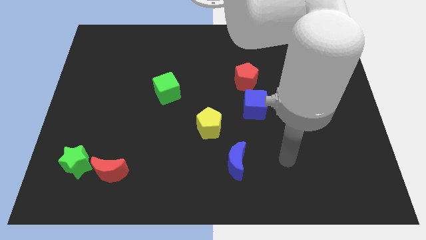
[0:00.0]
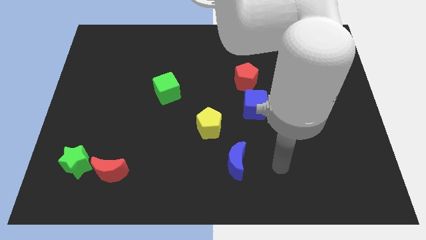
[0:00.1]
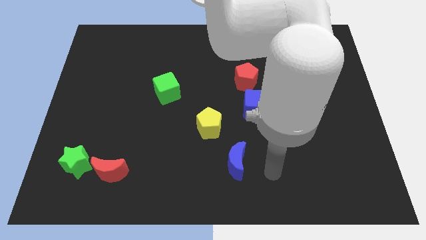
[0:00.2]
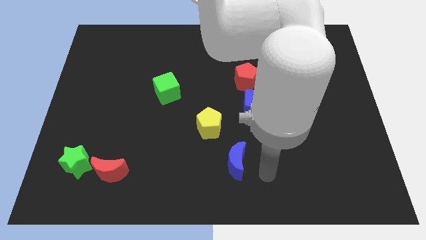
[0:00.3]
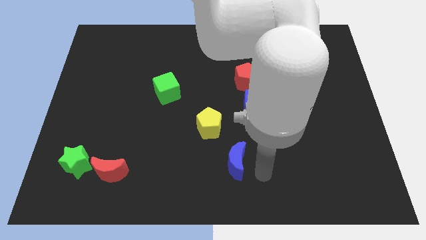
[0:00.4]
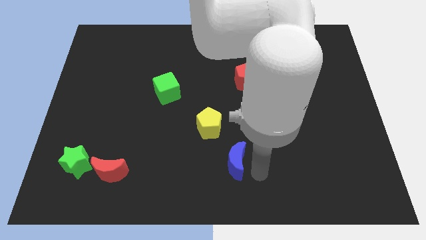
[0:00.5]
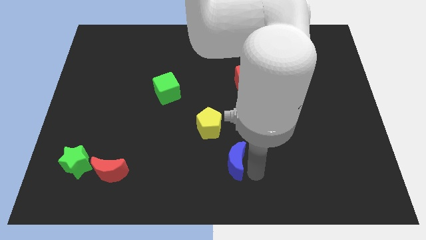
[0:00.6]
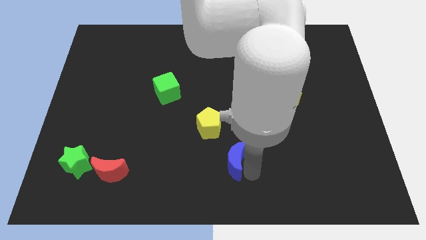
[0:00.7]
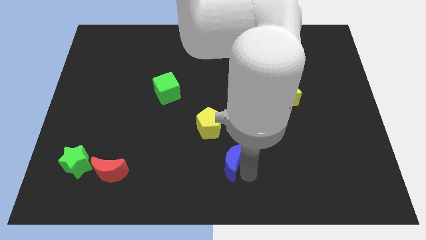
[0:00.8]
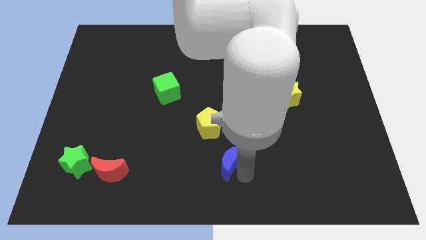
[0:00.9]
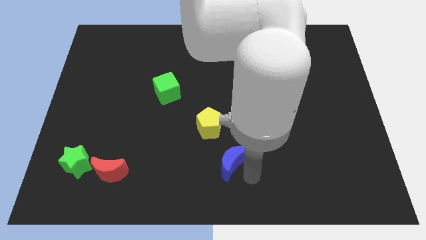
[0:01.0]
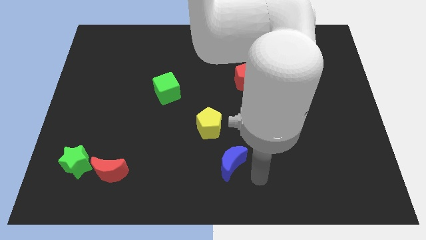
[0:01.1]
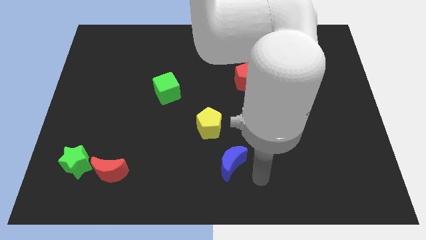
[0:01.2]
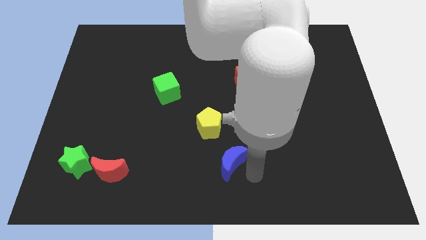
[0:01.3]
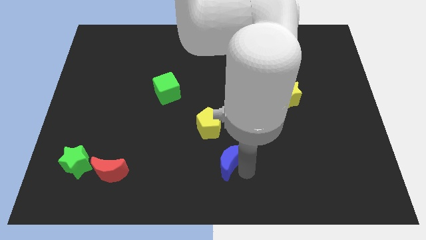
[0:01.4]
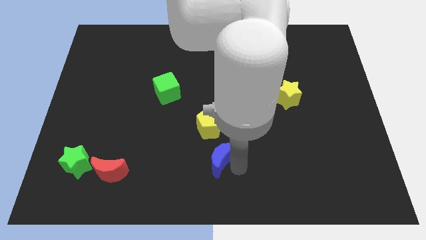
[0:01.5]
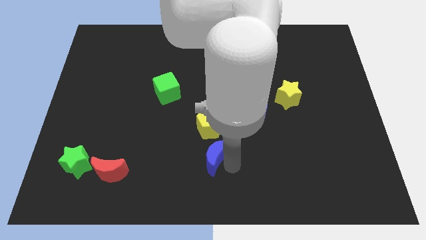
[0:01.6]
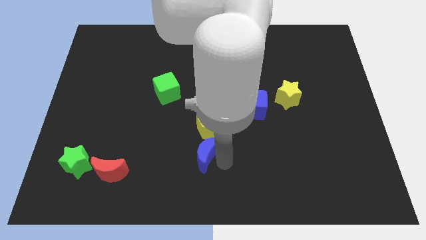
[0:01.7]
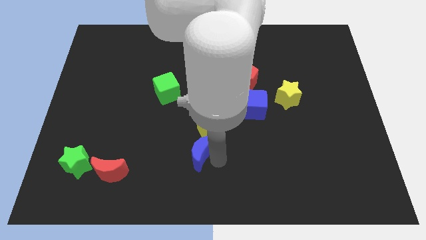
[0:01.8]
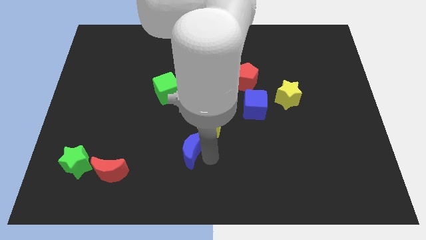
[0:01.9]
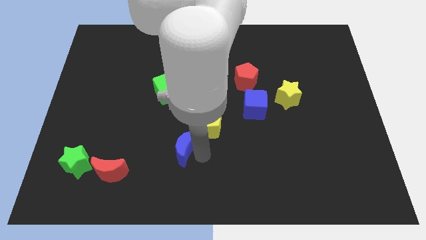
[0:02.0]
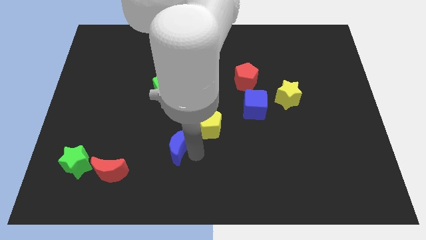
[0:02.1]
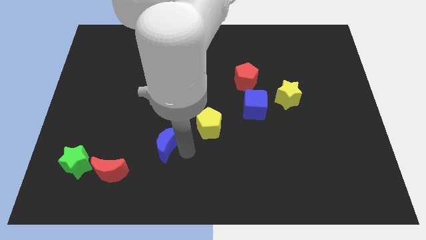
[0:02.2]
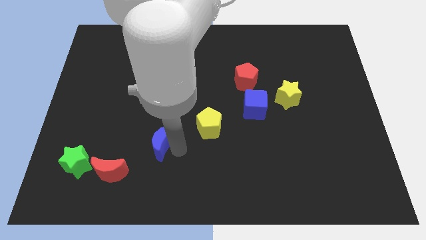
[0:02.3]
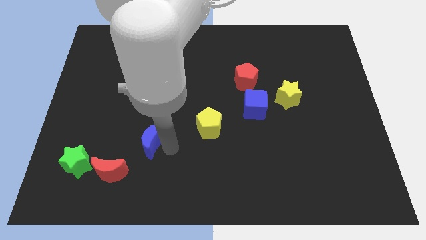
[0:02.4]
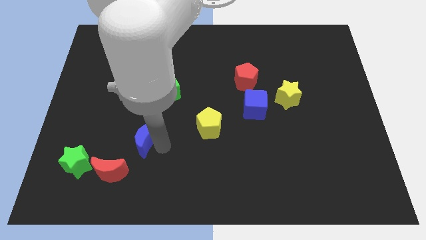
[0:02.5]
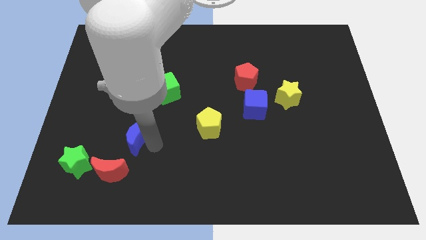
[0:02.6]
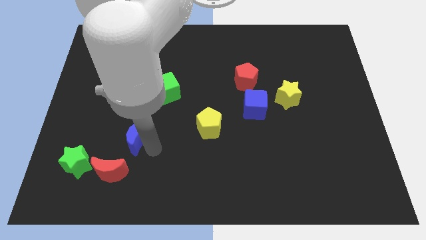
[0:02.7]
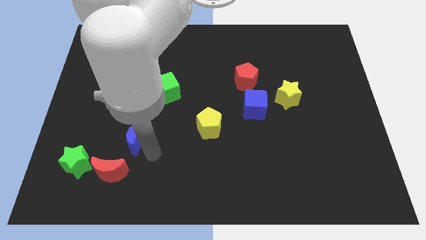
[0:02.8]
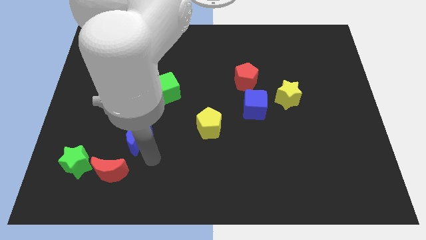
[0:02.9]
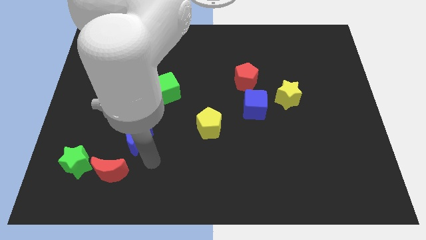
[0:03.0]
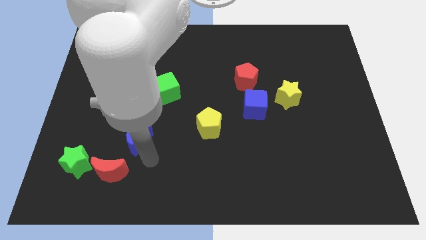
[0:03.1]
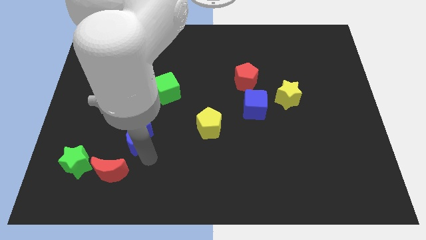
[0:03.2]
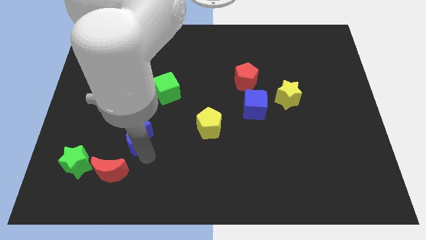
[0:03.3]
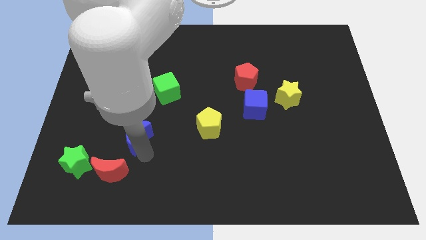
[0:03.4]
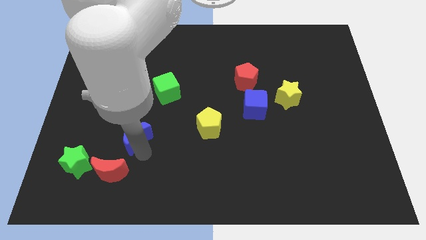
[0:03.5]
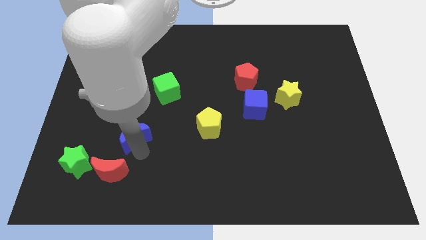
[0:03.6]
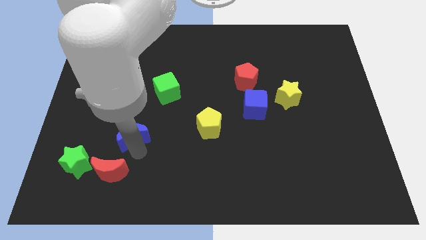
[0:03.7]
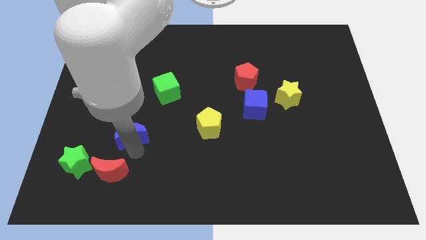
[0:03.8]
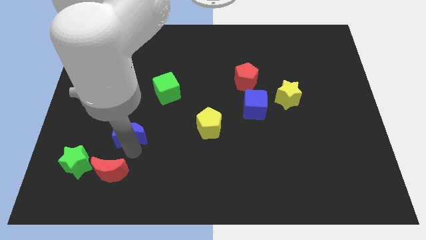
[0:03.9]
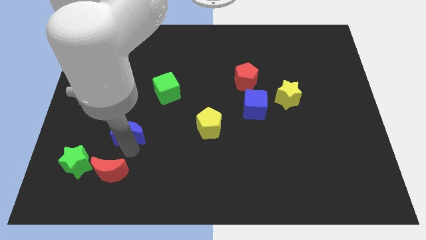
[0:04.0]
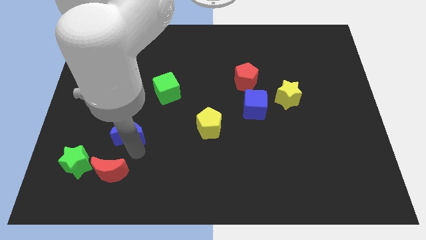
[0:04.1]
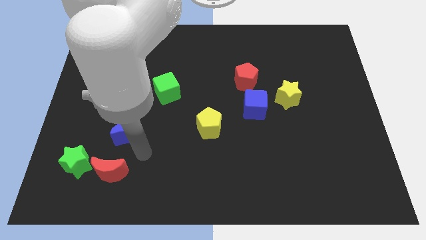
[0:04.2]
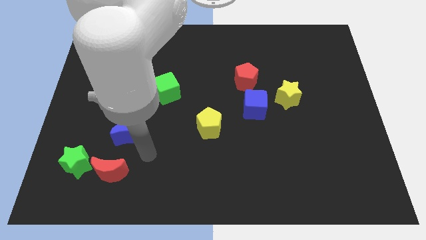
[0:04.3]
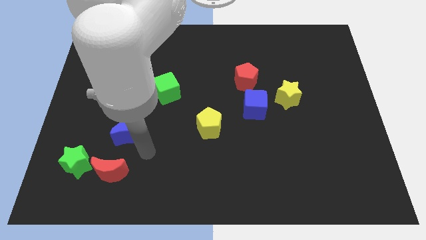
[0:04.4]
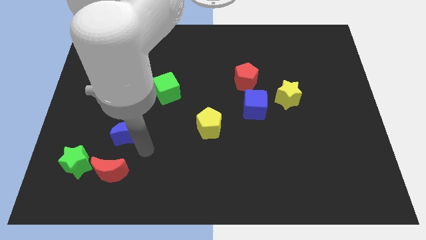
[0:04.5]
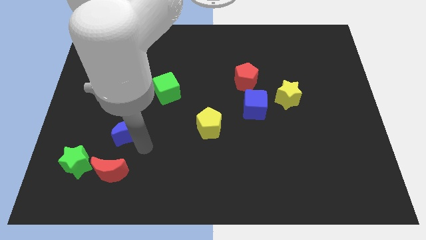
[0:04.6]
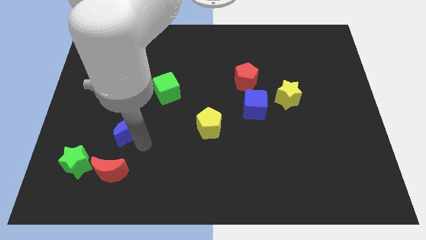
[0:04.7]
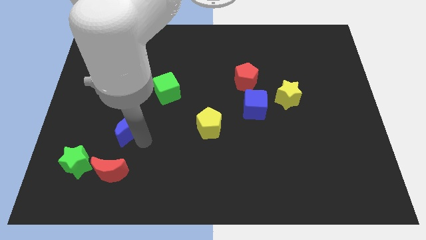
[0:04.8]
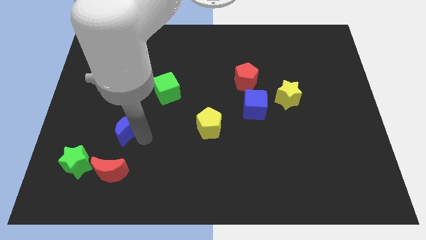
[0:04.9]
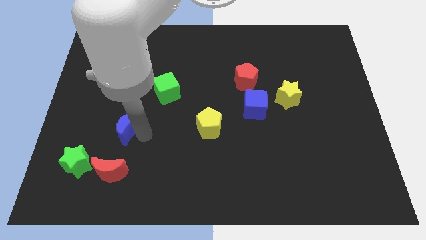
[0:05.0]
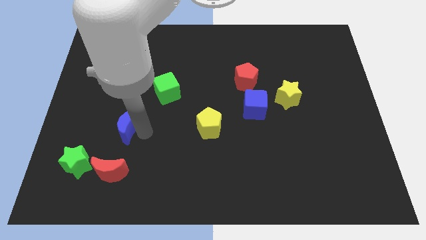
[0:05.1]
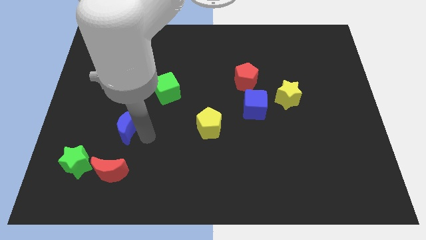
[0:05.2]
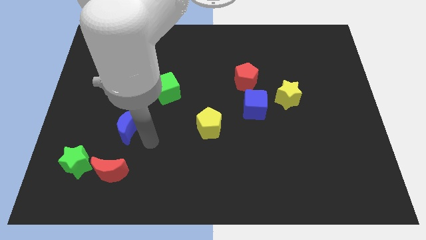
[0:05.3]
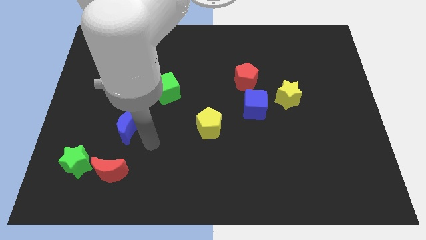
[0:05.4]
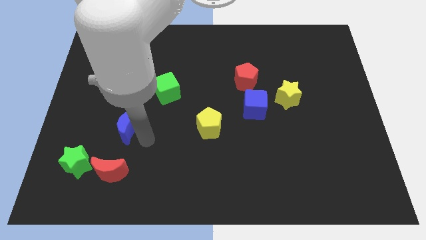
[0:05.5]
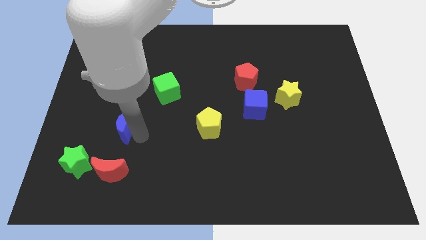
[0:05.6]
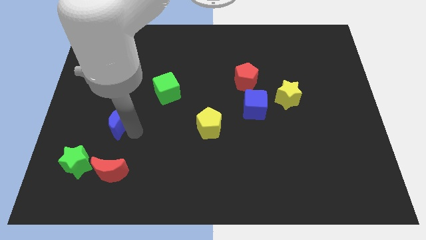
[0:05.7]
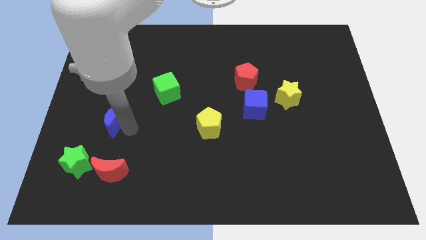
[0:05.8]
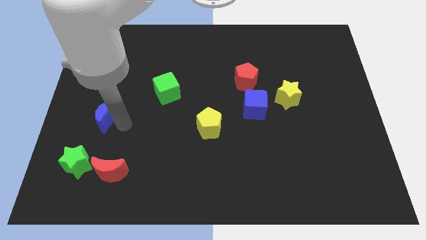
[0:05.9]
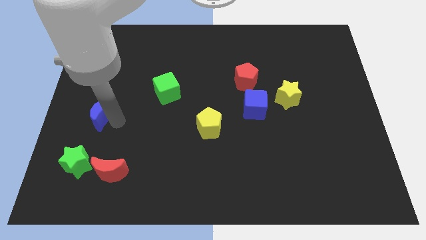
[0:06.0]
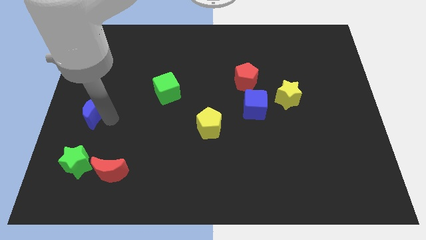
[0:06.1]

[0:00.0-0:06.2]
move the blue moon to the left side of the board
